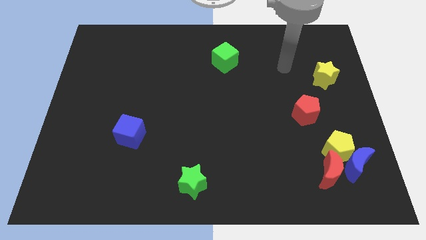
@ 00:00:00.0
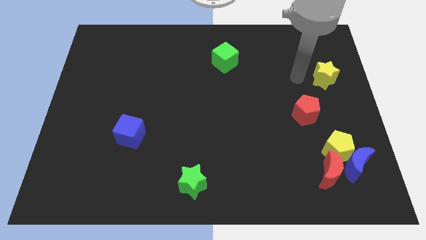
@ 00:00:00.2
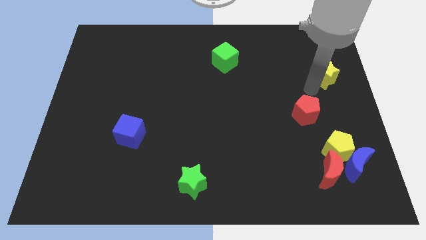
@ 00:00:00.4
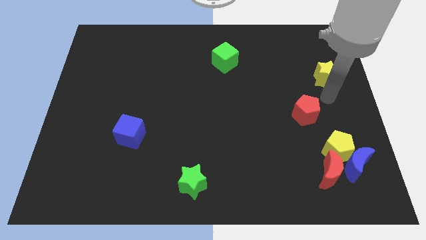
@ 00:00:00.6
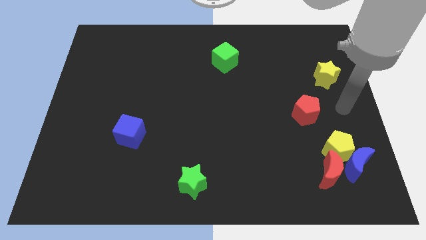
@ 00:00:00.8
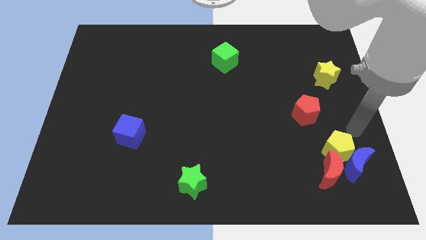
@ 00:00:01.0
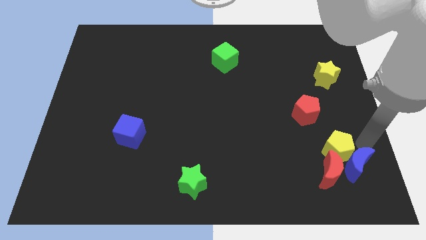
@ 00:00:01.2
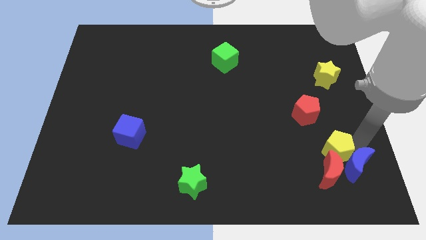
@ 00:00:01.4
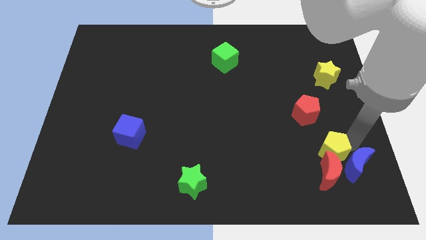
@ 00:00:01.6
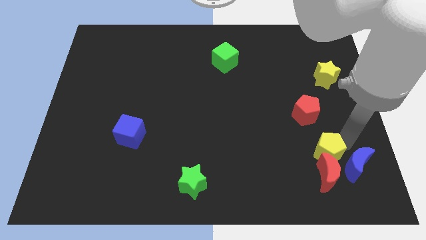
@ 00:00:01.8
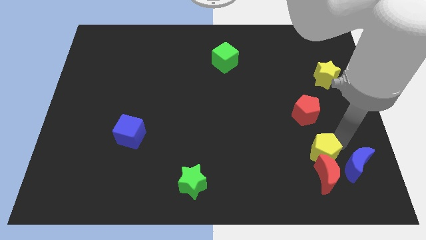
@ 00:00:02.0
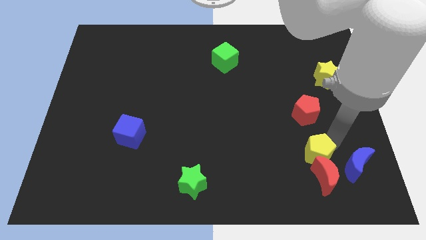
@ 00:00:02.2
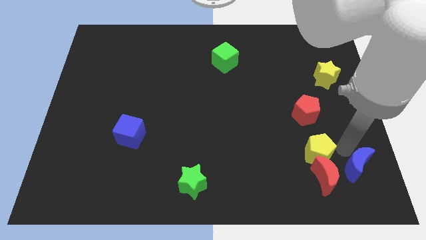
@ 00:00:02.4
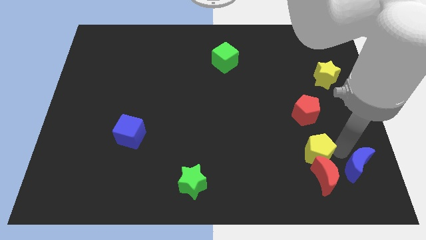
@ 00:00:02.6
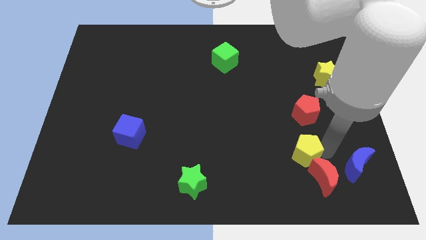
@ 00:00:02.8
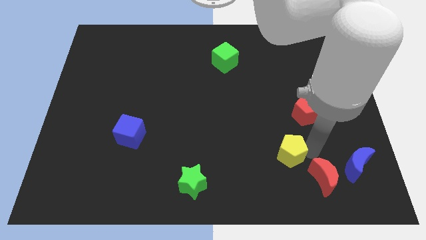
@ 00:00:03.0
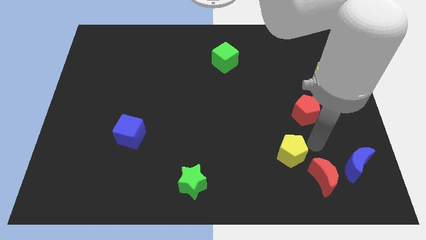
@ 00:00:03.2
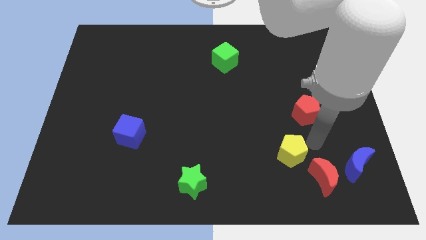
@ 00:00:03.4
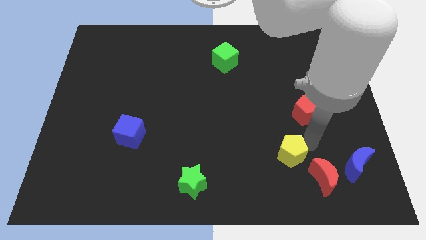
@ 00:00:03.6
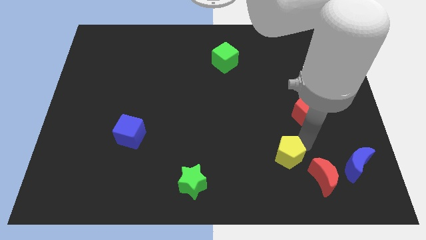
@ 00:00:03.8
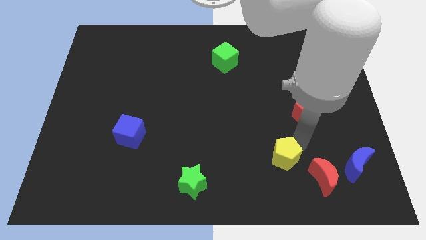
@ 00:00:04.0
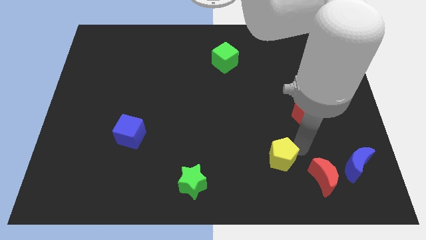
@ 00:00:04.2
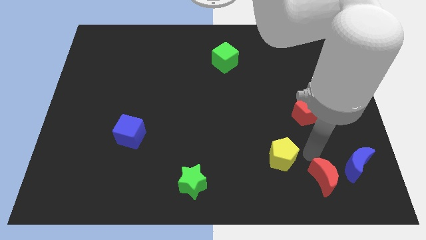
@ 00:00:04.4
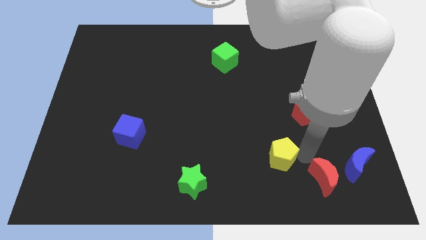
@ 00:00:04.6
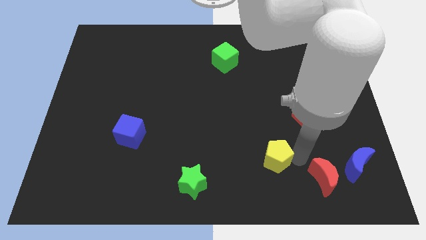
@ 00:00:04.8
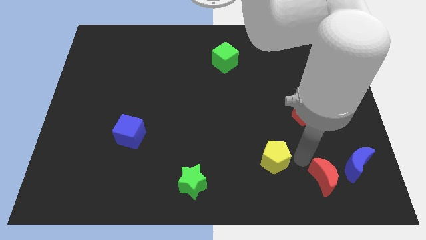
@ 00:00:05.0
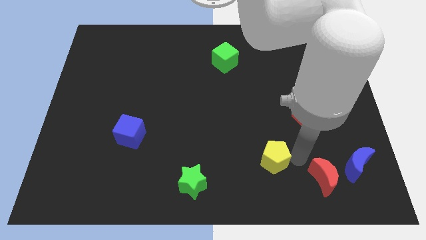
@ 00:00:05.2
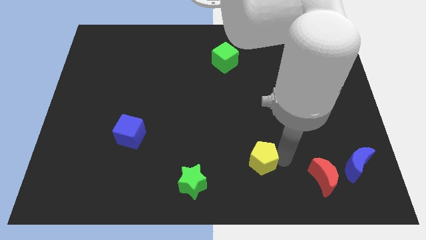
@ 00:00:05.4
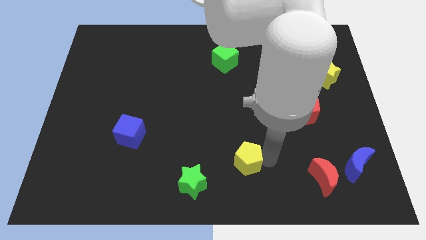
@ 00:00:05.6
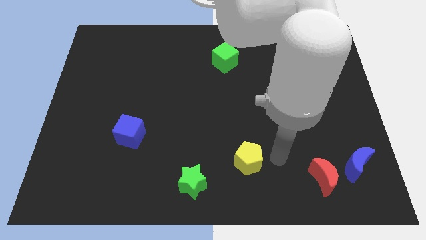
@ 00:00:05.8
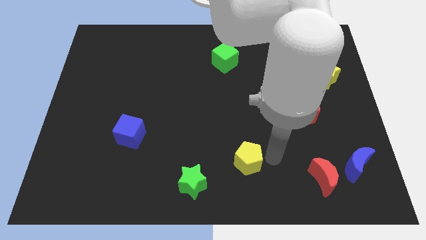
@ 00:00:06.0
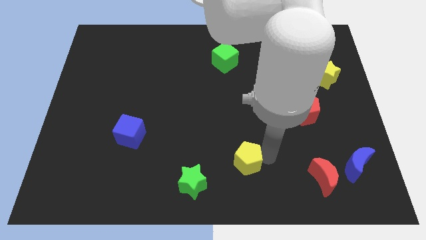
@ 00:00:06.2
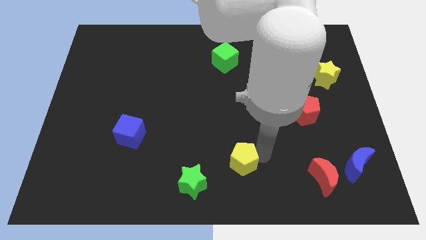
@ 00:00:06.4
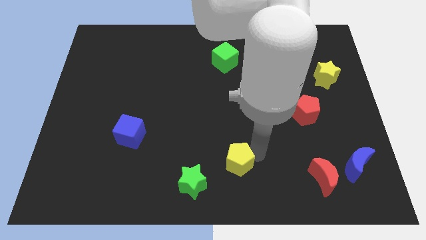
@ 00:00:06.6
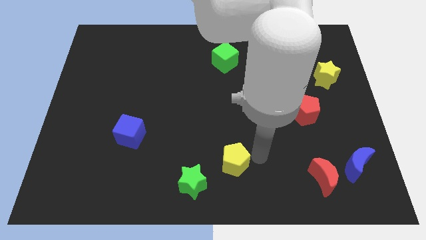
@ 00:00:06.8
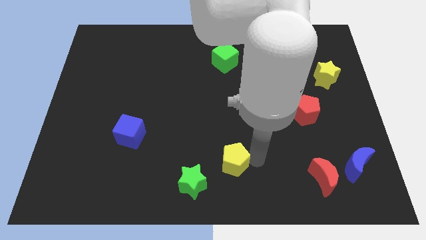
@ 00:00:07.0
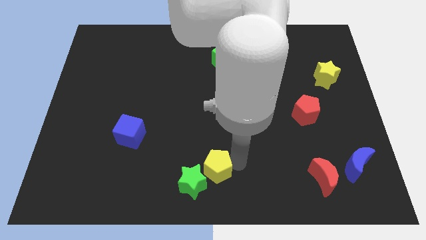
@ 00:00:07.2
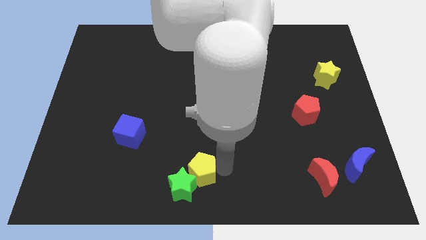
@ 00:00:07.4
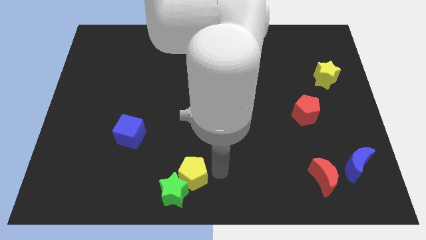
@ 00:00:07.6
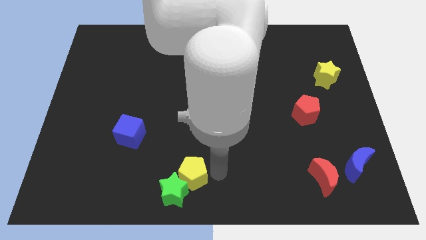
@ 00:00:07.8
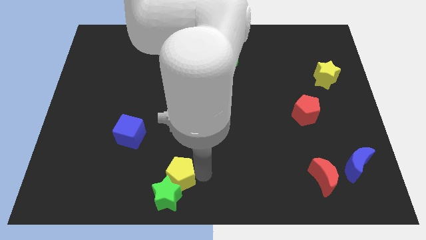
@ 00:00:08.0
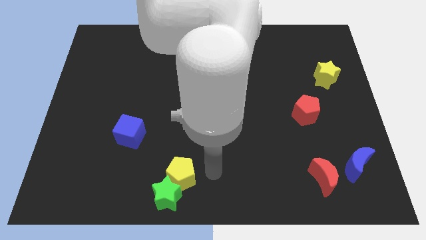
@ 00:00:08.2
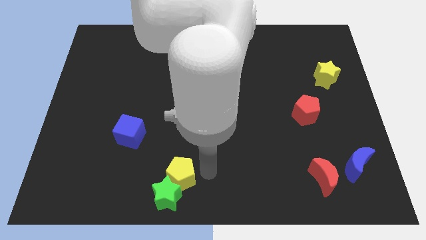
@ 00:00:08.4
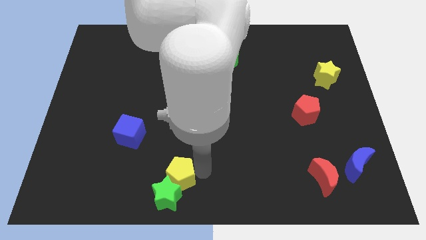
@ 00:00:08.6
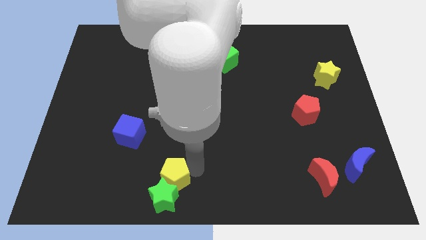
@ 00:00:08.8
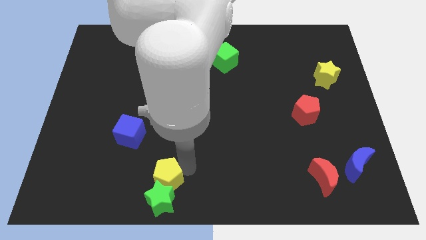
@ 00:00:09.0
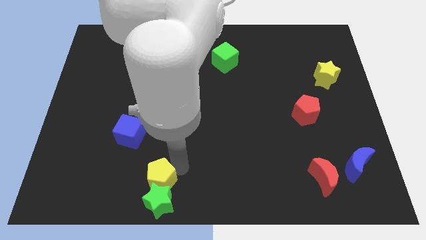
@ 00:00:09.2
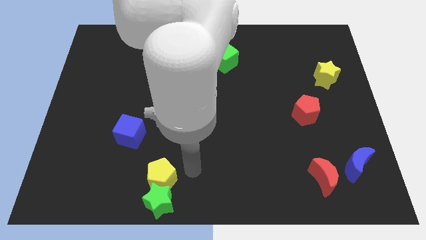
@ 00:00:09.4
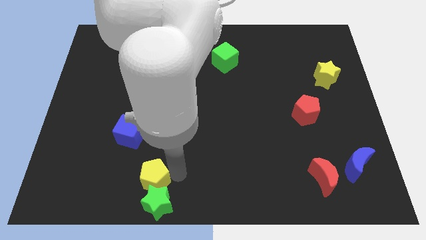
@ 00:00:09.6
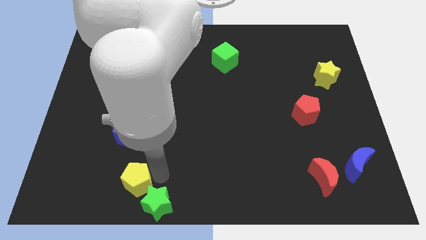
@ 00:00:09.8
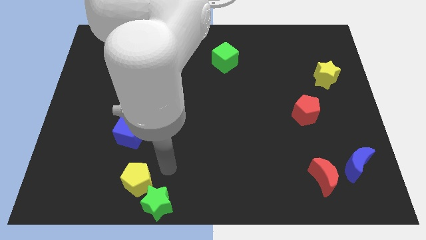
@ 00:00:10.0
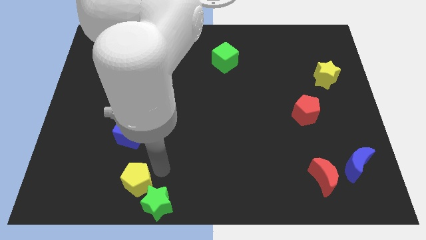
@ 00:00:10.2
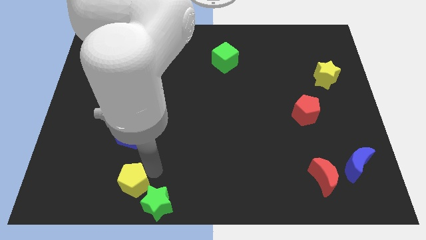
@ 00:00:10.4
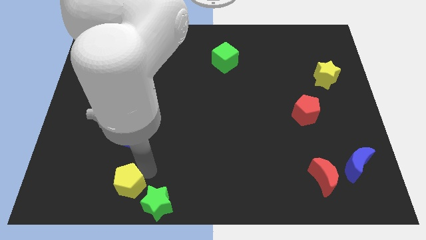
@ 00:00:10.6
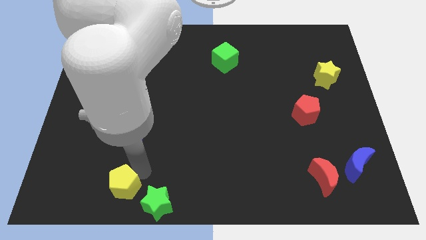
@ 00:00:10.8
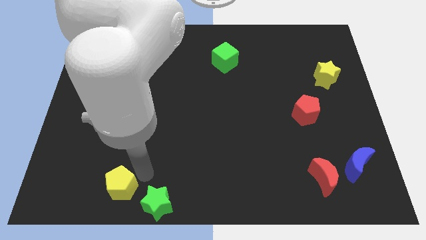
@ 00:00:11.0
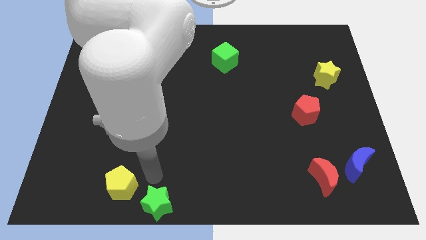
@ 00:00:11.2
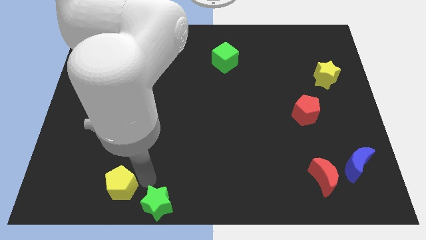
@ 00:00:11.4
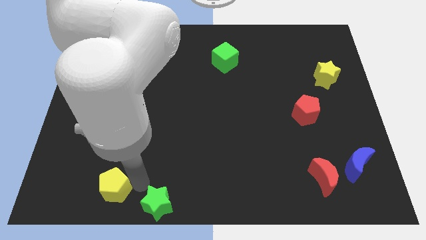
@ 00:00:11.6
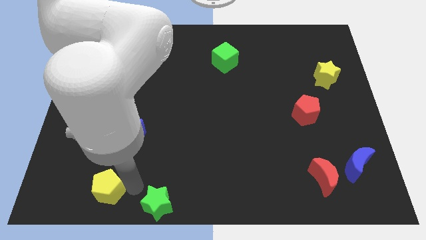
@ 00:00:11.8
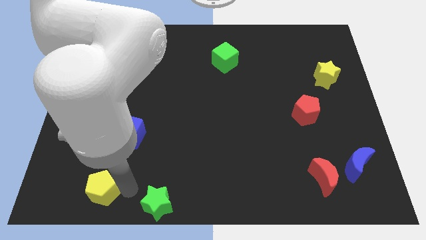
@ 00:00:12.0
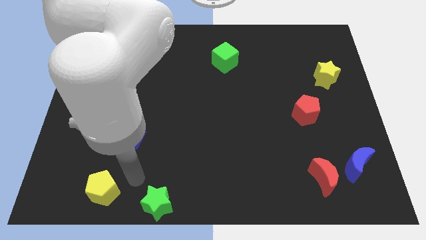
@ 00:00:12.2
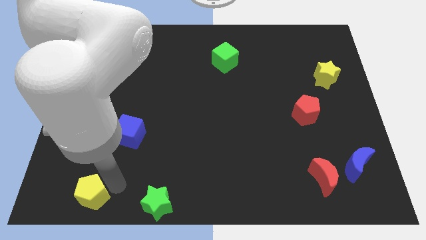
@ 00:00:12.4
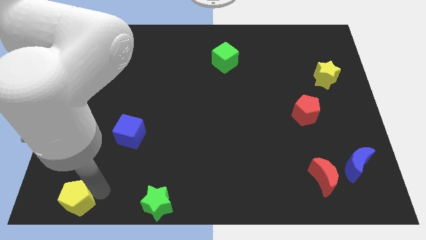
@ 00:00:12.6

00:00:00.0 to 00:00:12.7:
push the yellow pentagon to the lower left corner

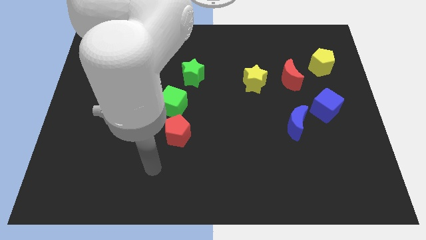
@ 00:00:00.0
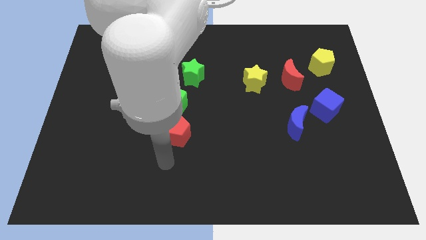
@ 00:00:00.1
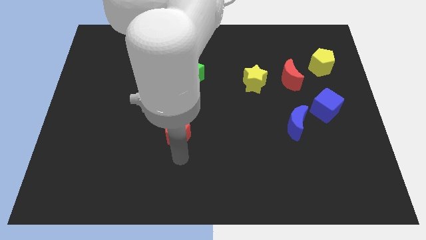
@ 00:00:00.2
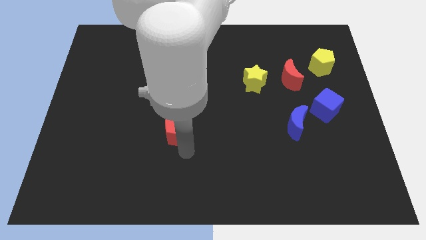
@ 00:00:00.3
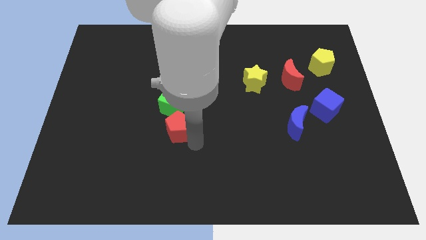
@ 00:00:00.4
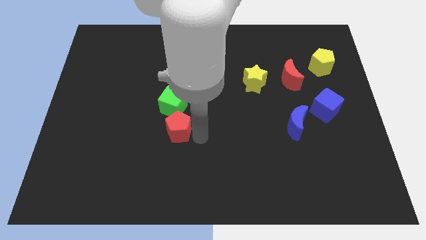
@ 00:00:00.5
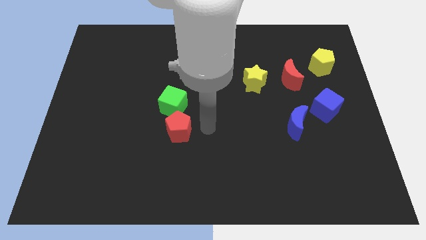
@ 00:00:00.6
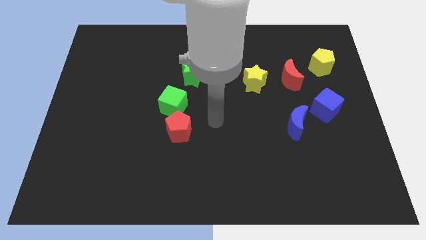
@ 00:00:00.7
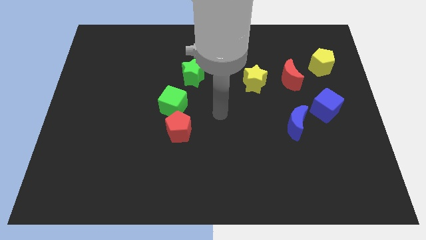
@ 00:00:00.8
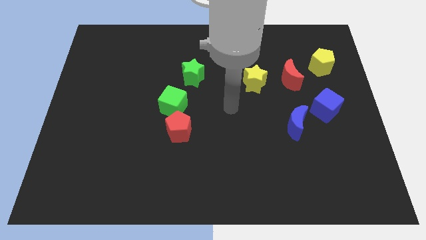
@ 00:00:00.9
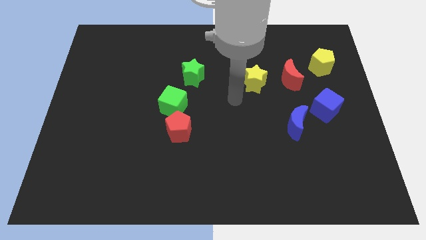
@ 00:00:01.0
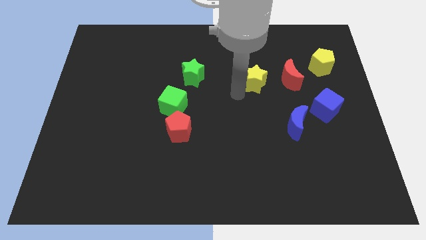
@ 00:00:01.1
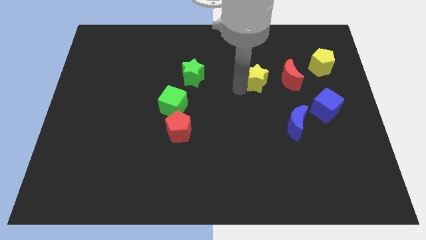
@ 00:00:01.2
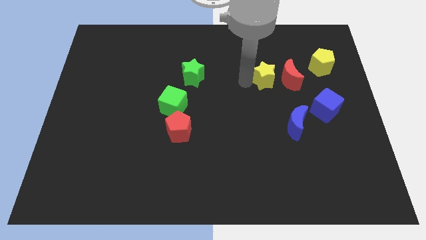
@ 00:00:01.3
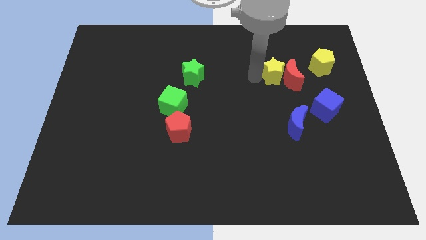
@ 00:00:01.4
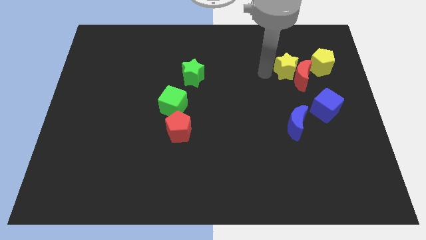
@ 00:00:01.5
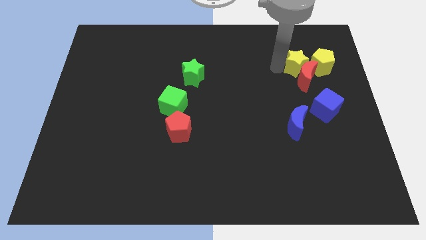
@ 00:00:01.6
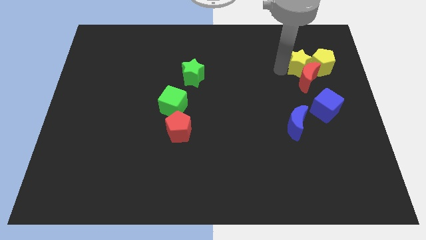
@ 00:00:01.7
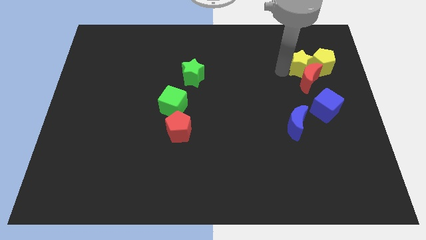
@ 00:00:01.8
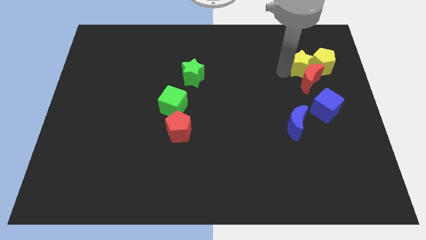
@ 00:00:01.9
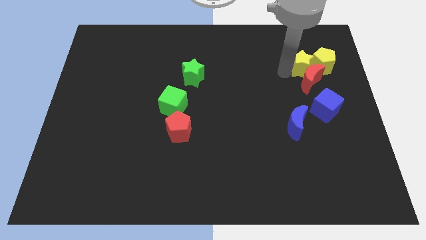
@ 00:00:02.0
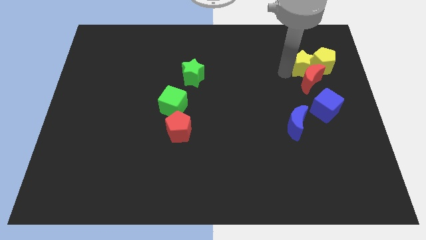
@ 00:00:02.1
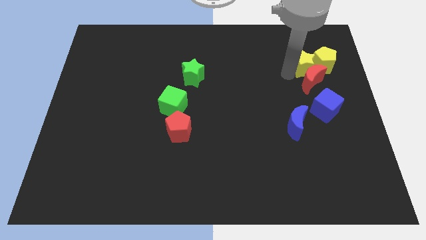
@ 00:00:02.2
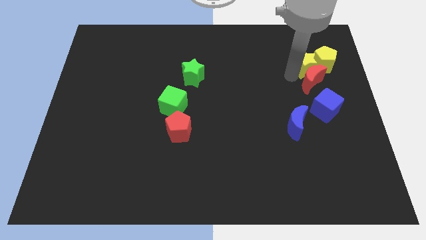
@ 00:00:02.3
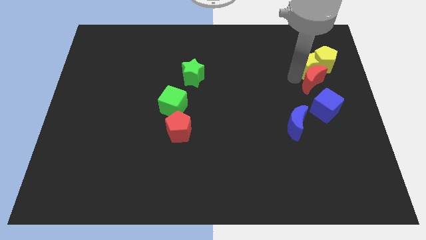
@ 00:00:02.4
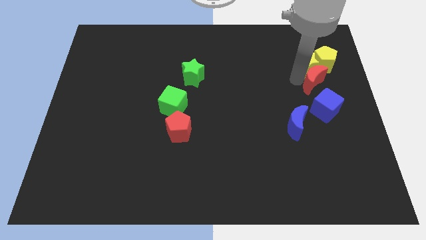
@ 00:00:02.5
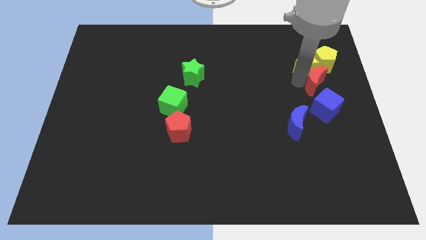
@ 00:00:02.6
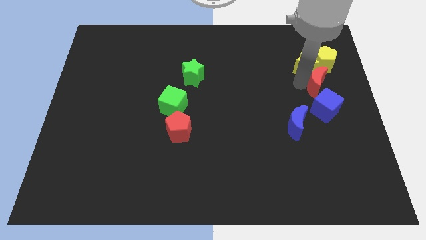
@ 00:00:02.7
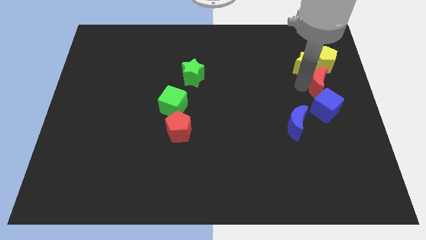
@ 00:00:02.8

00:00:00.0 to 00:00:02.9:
move the red moon to the right side
